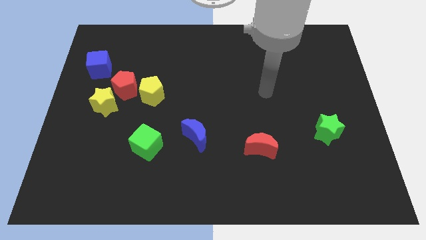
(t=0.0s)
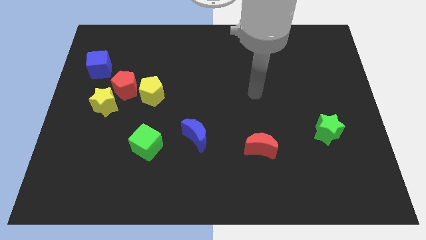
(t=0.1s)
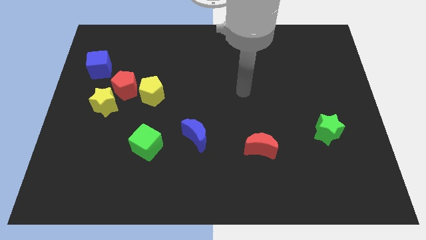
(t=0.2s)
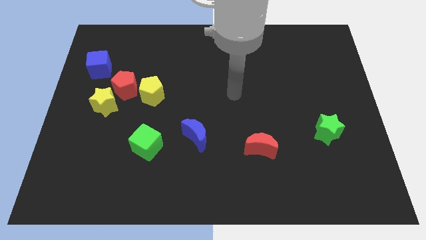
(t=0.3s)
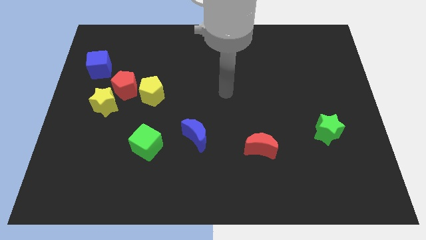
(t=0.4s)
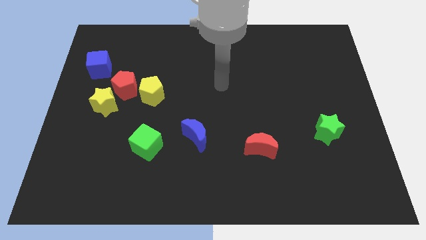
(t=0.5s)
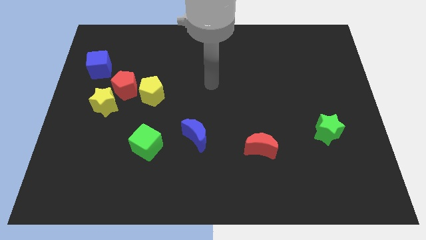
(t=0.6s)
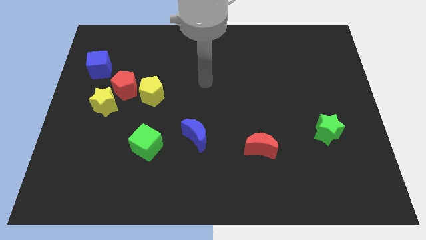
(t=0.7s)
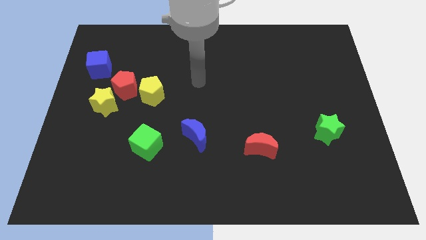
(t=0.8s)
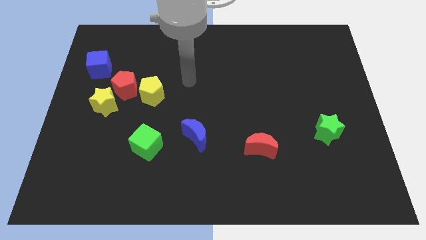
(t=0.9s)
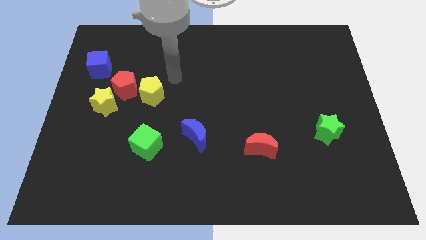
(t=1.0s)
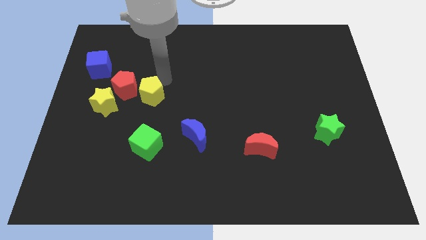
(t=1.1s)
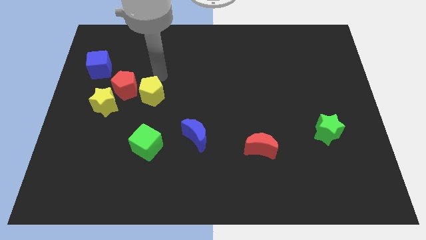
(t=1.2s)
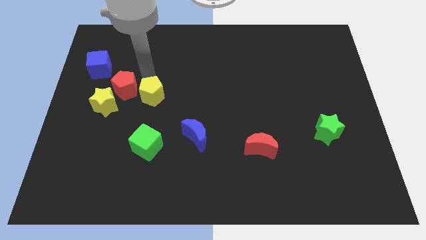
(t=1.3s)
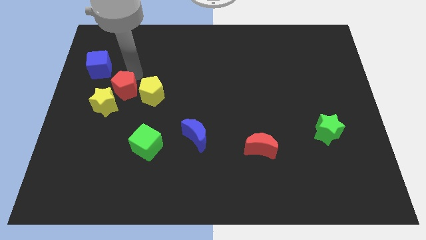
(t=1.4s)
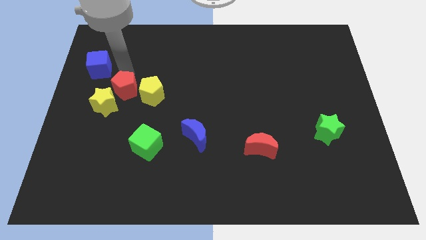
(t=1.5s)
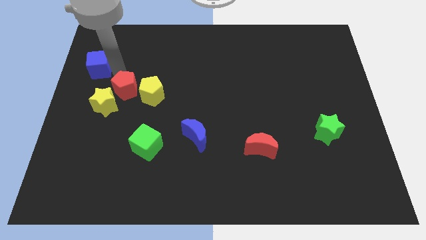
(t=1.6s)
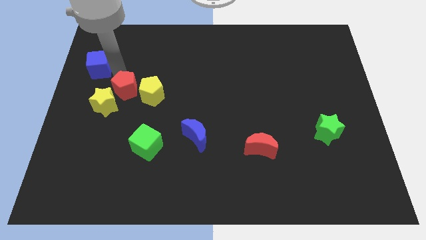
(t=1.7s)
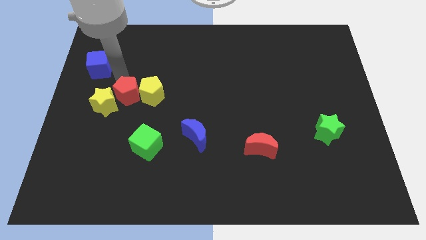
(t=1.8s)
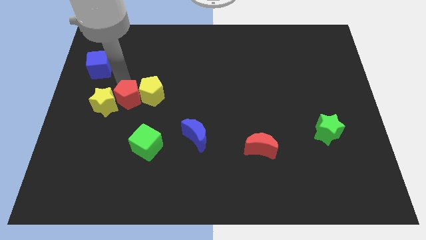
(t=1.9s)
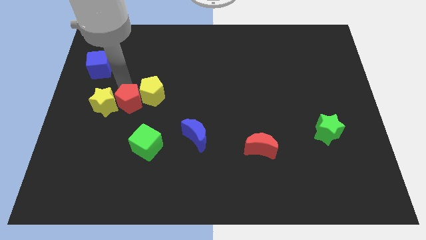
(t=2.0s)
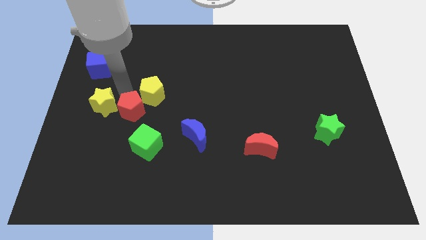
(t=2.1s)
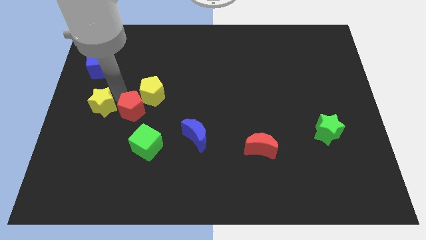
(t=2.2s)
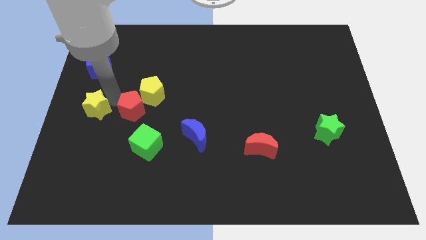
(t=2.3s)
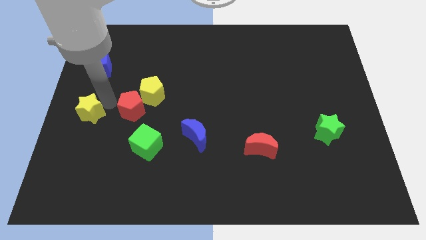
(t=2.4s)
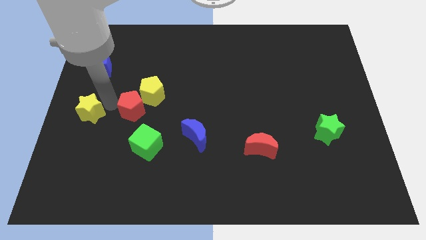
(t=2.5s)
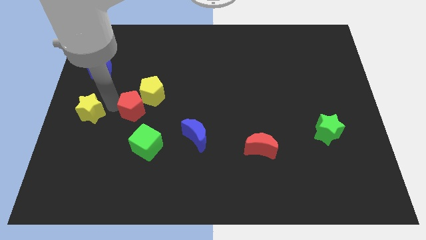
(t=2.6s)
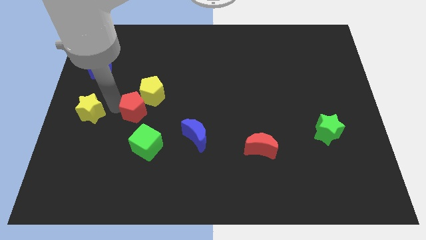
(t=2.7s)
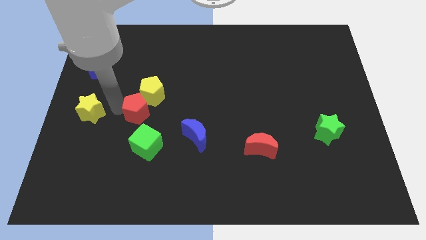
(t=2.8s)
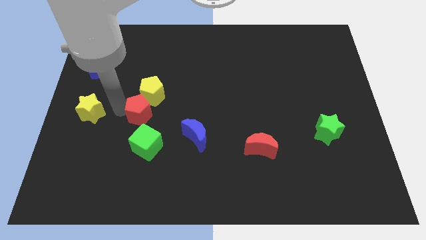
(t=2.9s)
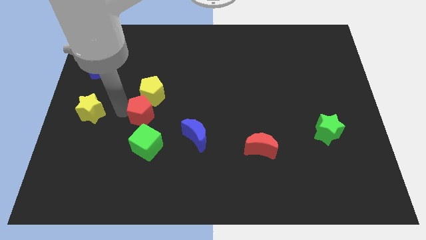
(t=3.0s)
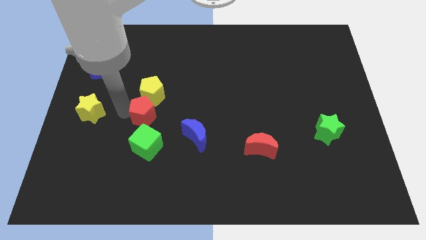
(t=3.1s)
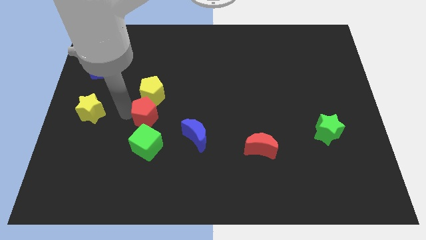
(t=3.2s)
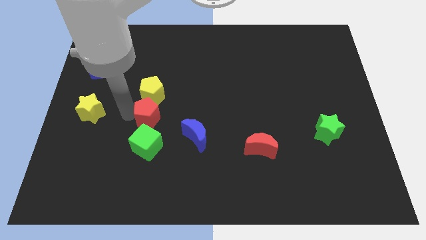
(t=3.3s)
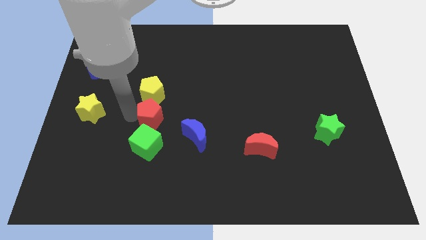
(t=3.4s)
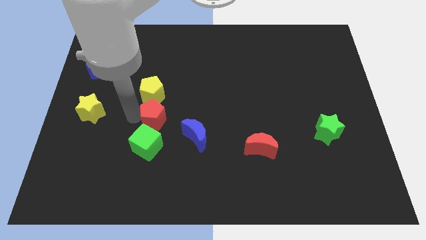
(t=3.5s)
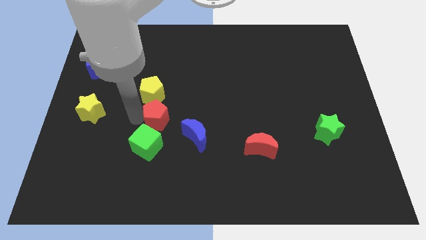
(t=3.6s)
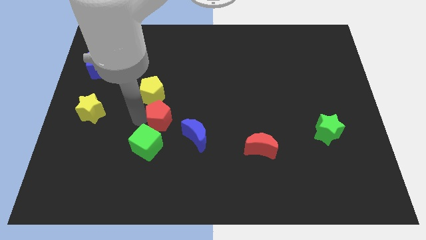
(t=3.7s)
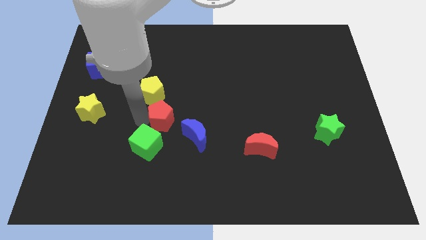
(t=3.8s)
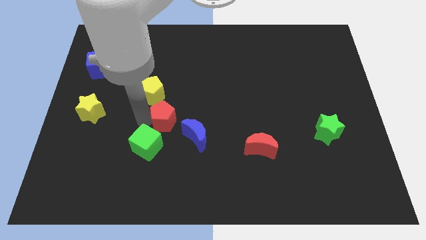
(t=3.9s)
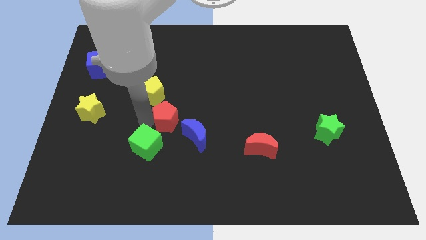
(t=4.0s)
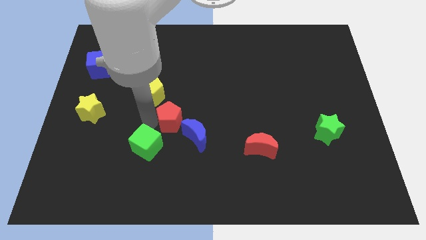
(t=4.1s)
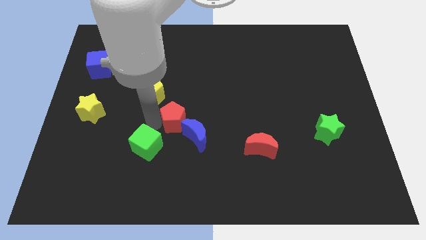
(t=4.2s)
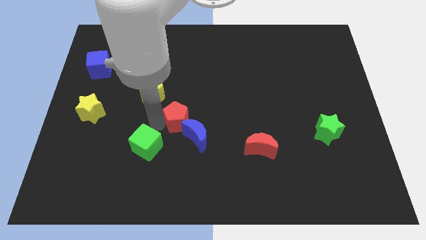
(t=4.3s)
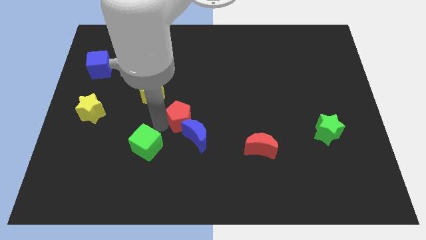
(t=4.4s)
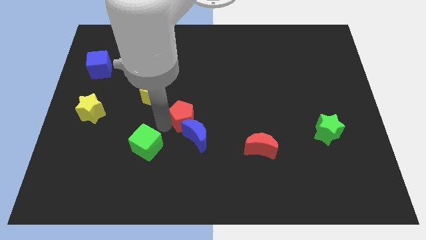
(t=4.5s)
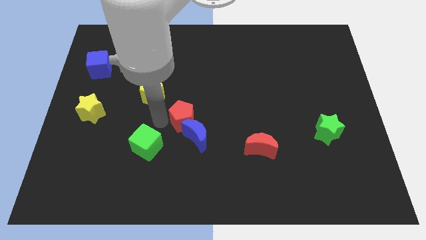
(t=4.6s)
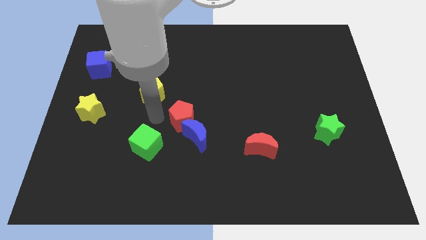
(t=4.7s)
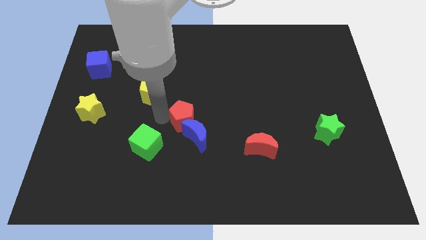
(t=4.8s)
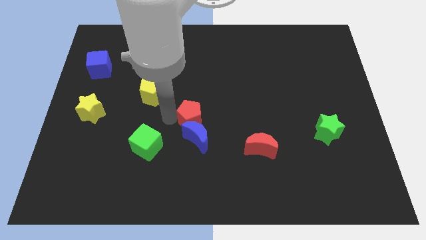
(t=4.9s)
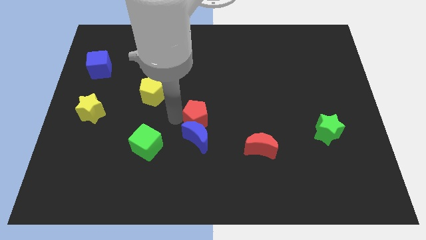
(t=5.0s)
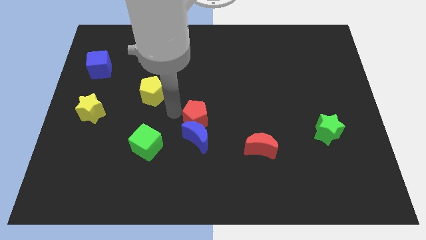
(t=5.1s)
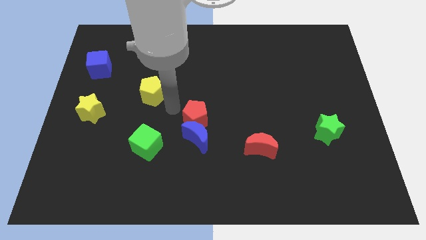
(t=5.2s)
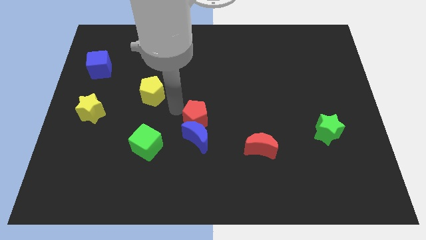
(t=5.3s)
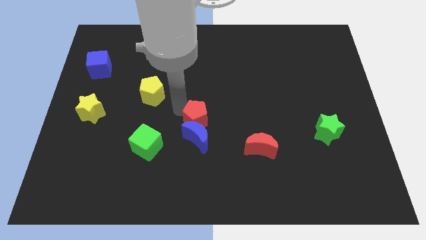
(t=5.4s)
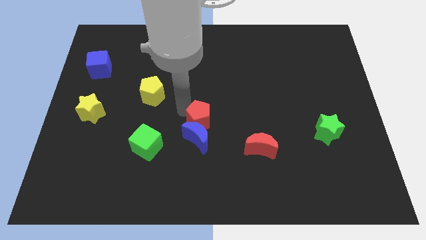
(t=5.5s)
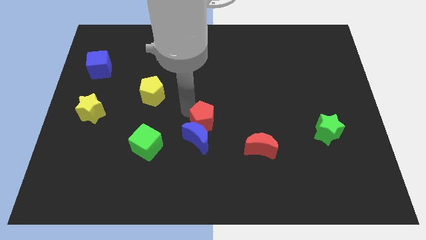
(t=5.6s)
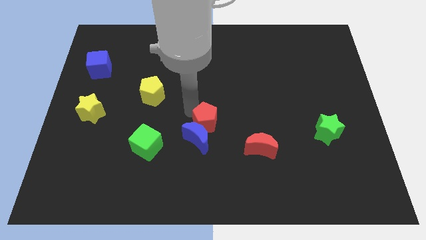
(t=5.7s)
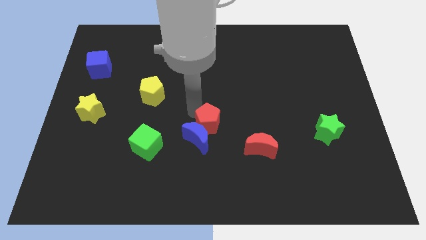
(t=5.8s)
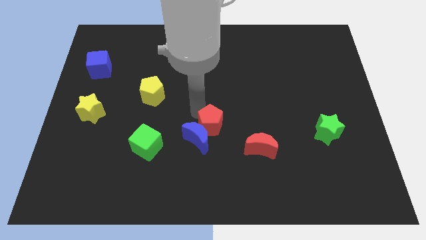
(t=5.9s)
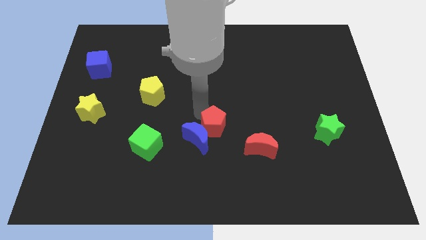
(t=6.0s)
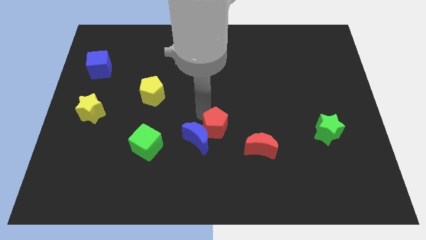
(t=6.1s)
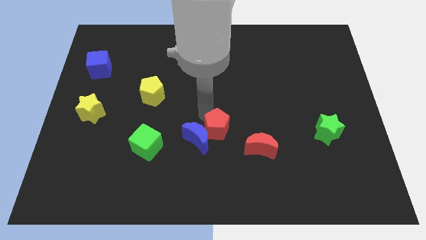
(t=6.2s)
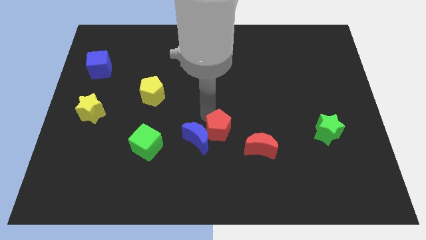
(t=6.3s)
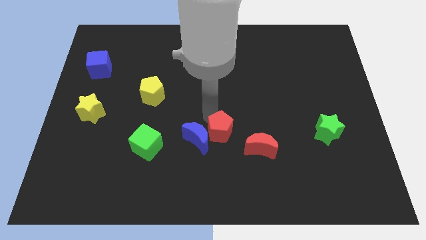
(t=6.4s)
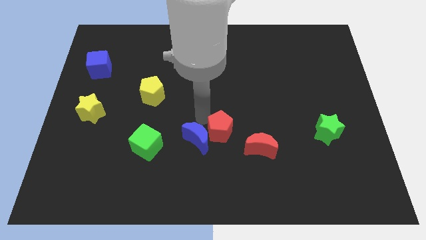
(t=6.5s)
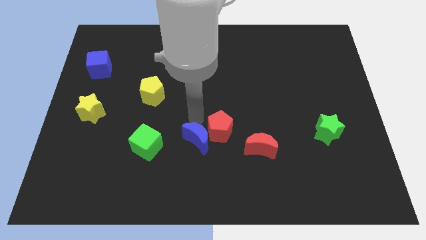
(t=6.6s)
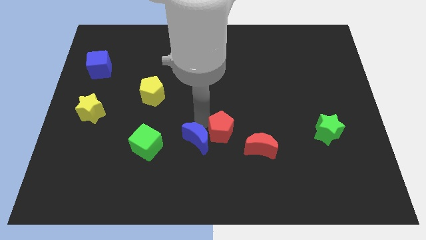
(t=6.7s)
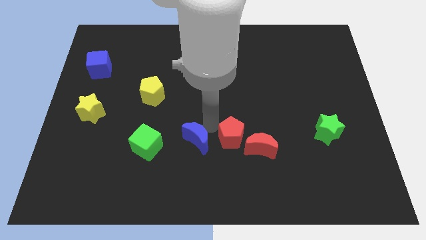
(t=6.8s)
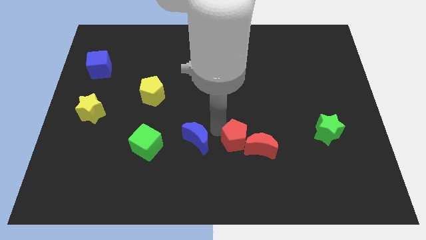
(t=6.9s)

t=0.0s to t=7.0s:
slide the red pentagon towards the red moon
